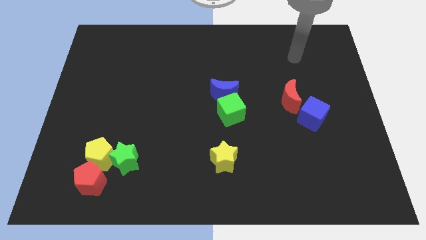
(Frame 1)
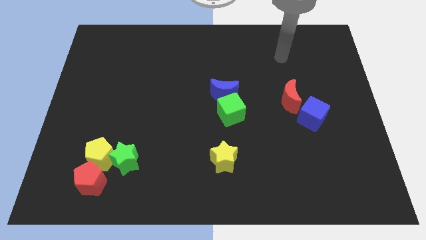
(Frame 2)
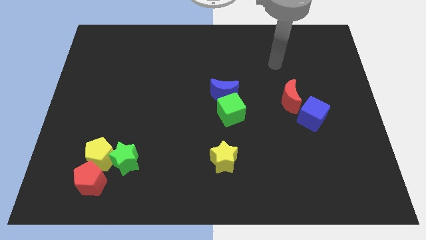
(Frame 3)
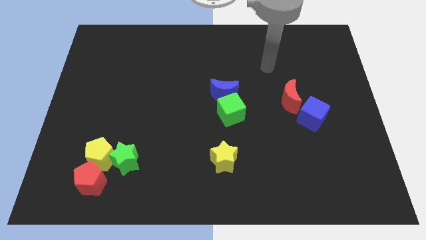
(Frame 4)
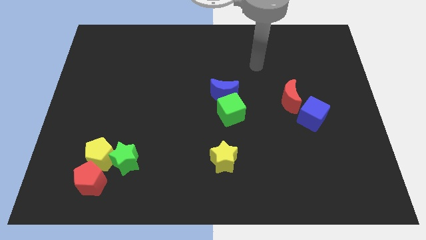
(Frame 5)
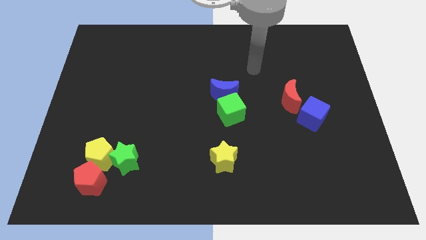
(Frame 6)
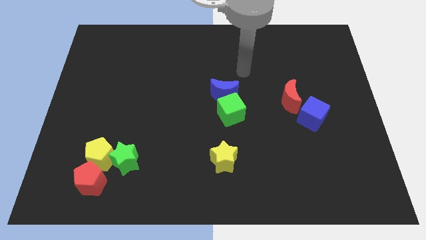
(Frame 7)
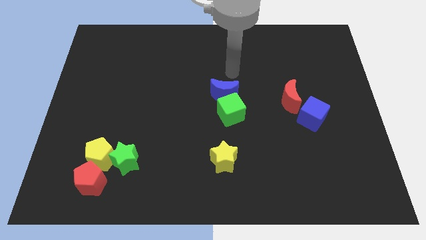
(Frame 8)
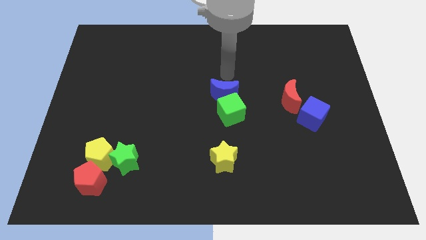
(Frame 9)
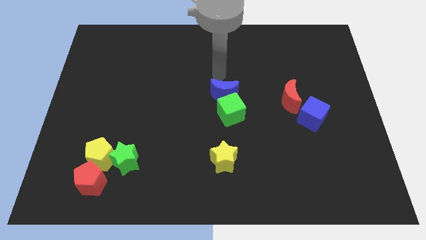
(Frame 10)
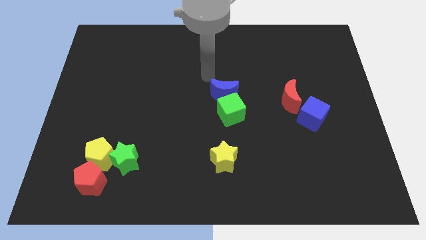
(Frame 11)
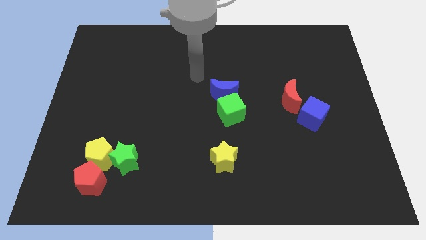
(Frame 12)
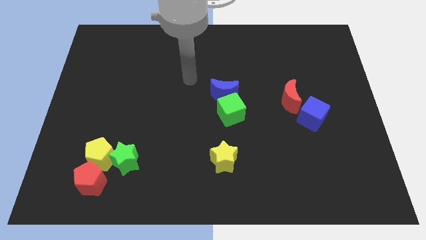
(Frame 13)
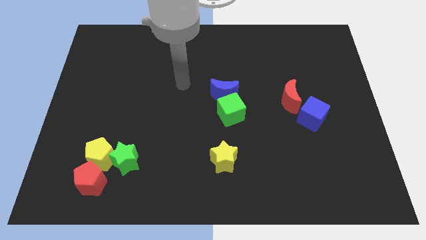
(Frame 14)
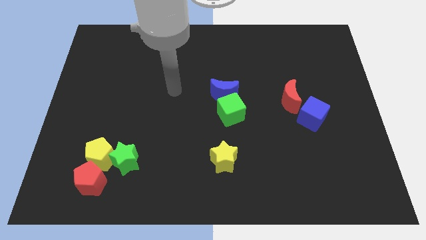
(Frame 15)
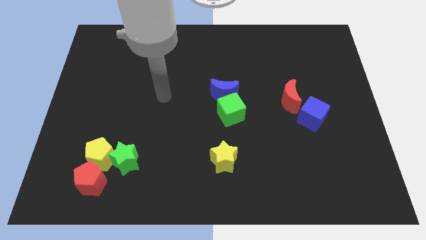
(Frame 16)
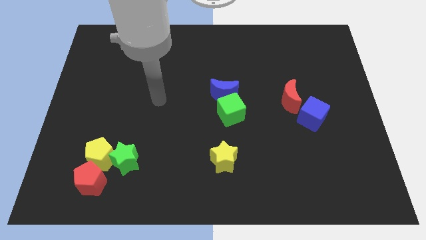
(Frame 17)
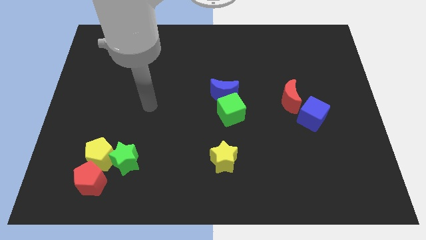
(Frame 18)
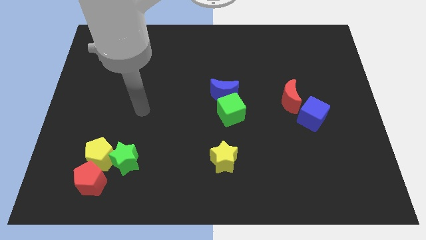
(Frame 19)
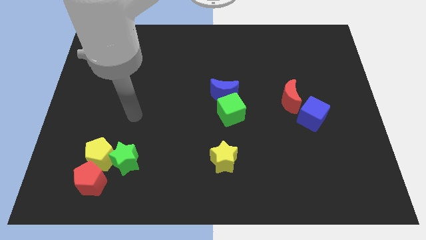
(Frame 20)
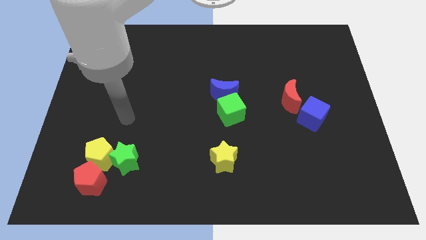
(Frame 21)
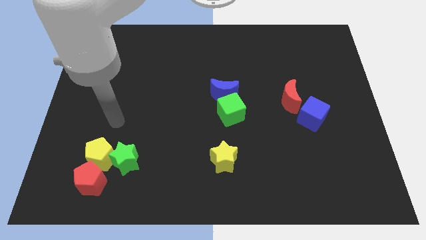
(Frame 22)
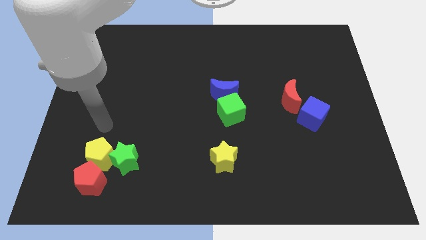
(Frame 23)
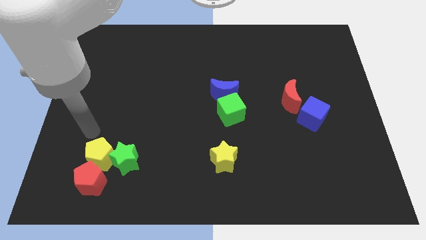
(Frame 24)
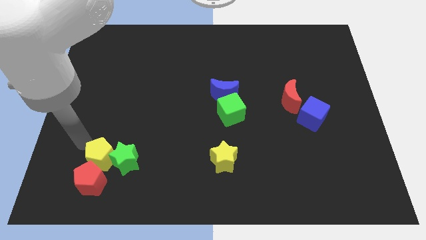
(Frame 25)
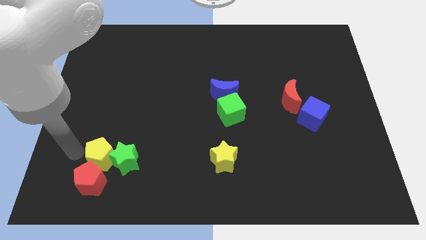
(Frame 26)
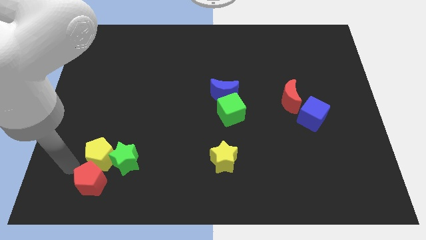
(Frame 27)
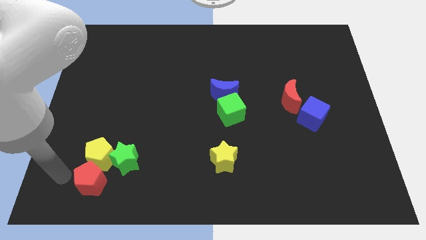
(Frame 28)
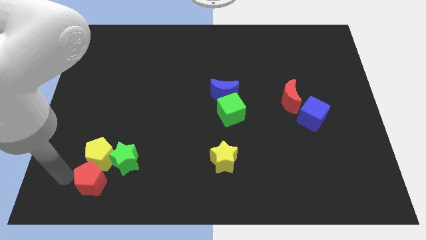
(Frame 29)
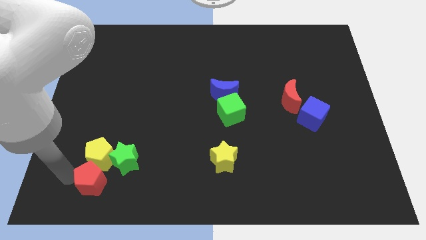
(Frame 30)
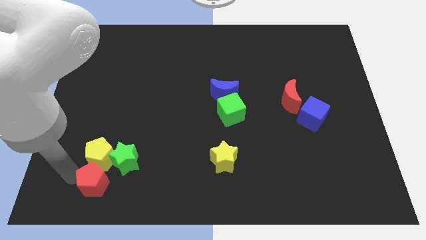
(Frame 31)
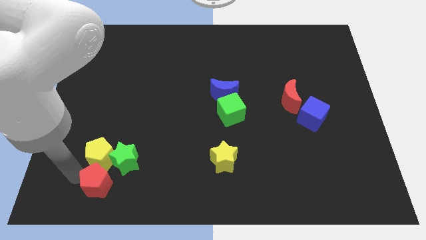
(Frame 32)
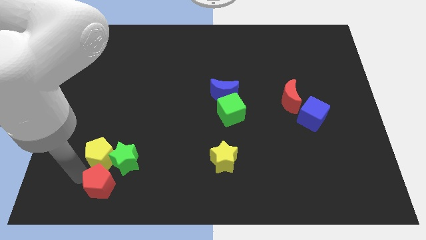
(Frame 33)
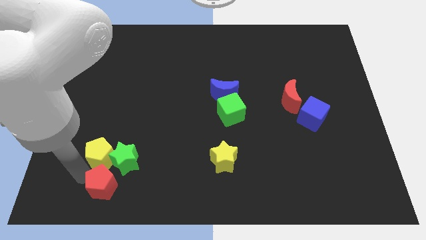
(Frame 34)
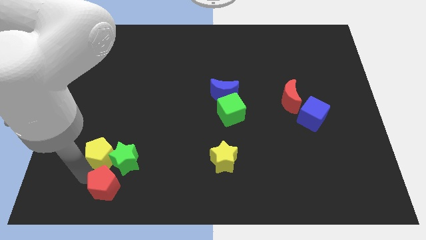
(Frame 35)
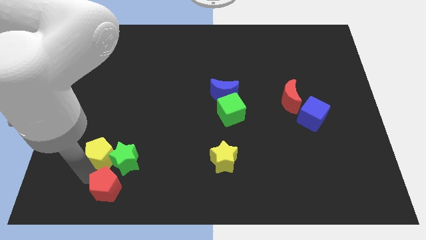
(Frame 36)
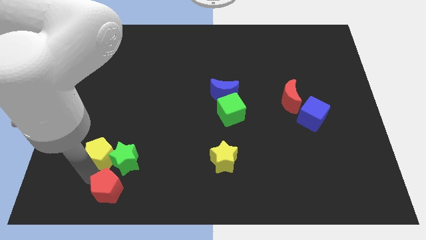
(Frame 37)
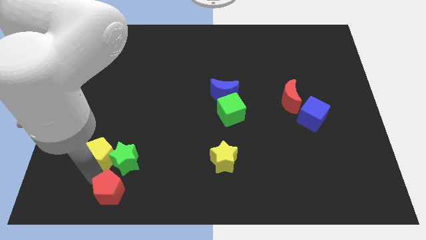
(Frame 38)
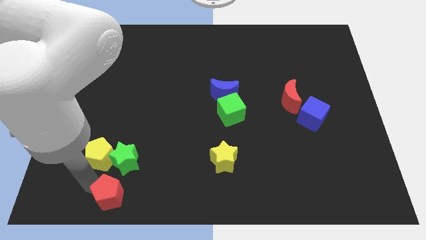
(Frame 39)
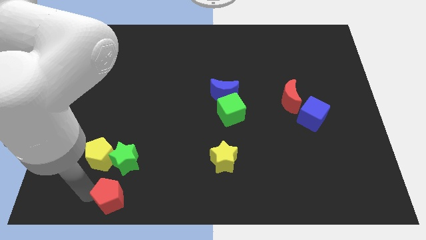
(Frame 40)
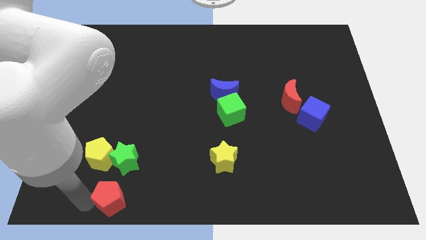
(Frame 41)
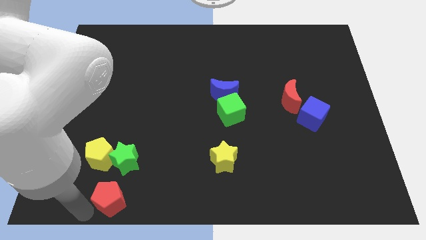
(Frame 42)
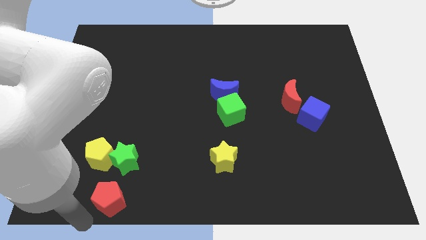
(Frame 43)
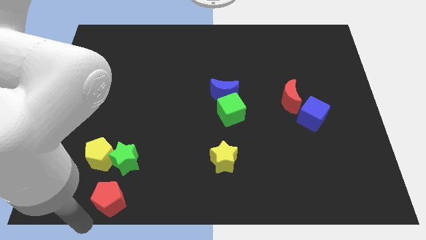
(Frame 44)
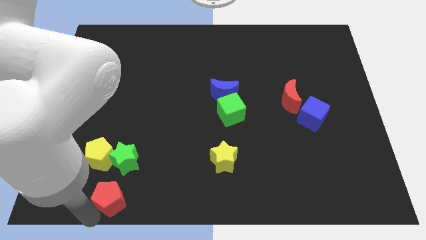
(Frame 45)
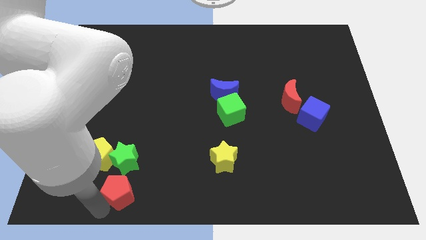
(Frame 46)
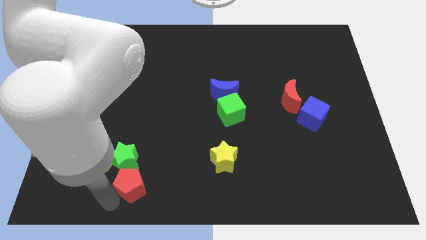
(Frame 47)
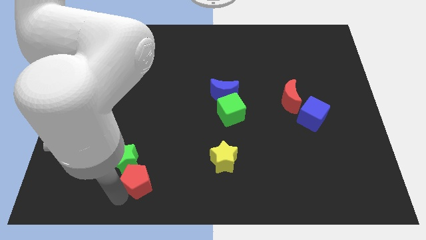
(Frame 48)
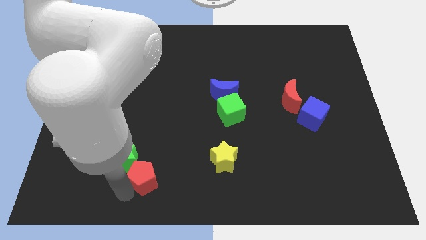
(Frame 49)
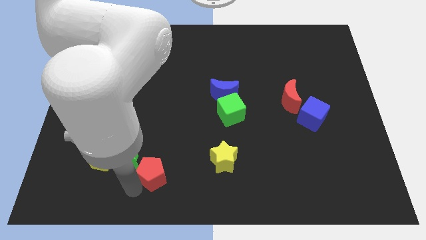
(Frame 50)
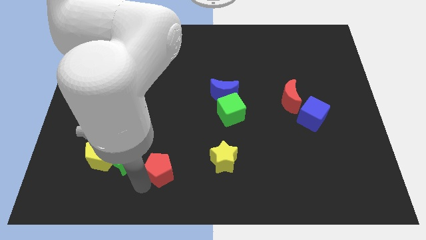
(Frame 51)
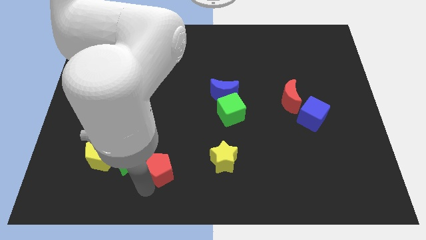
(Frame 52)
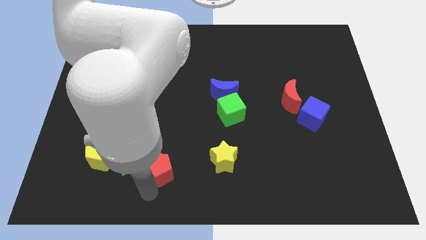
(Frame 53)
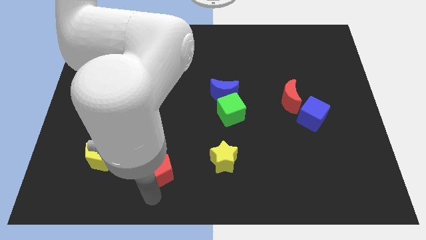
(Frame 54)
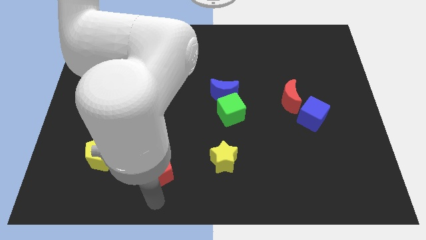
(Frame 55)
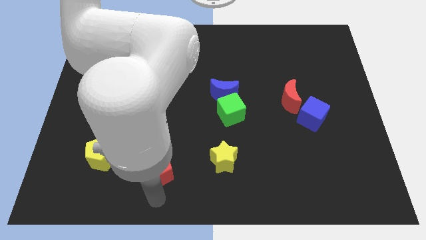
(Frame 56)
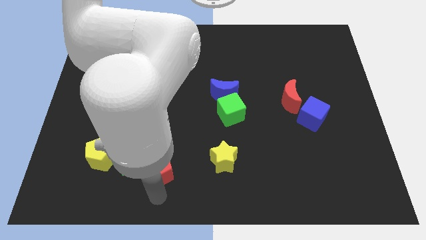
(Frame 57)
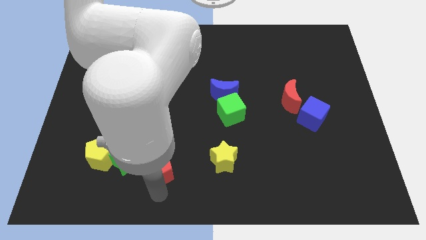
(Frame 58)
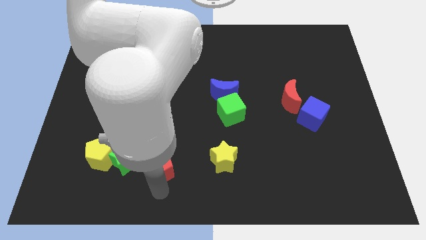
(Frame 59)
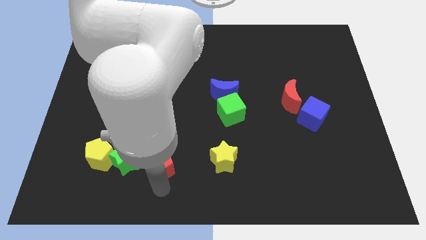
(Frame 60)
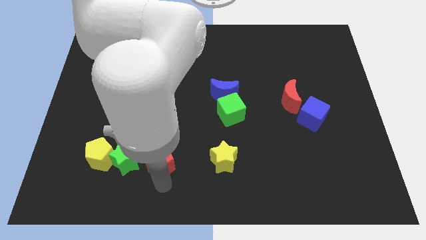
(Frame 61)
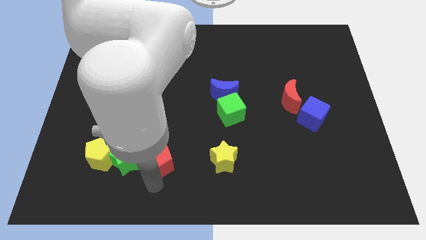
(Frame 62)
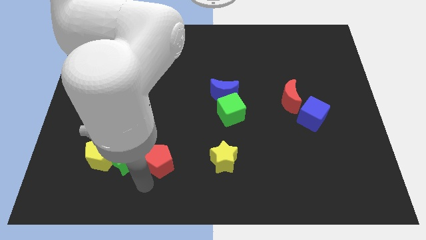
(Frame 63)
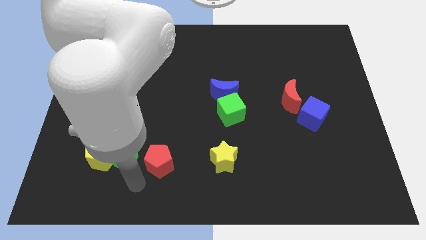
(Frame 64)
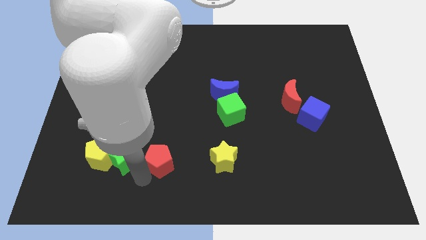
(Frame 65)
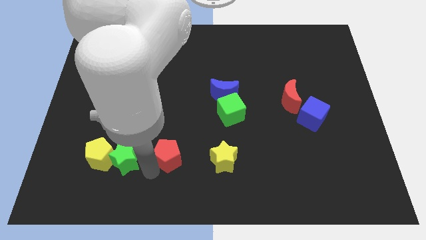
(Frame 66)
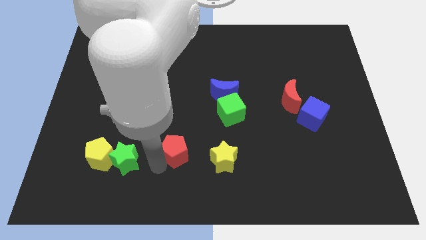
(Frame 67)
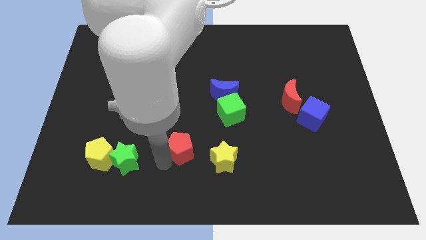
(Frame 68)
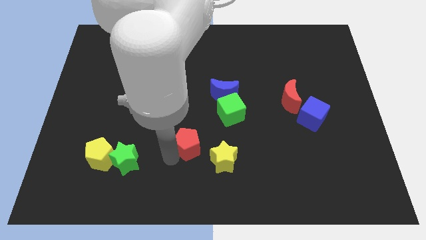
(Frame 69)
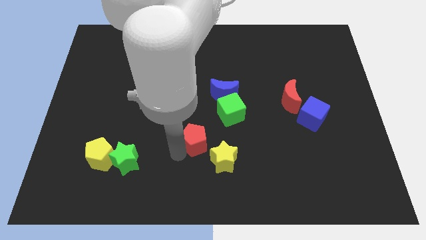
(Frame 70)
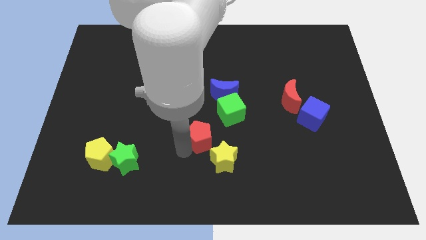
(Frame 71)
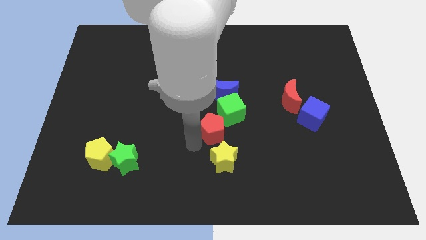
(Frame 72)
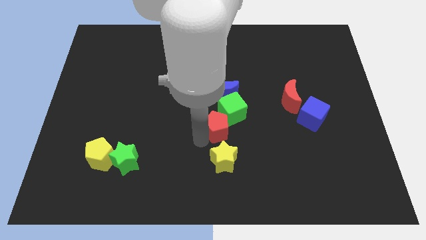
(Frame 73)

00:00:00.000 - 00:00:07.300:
slide the red pentagon towards the green cube
